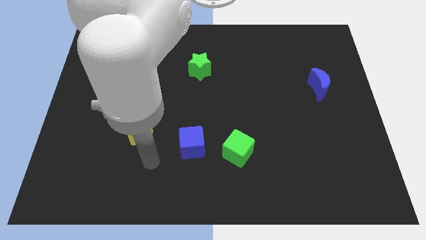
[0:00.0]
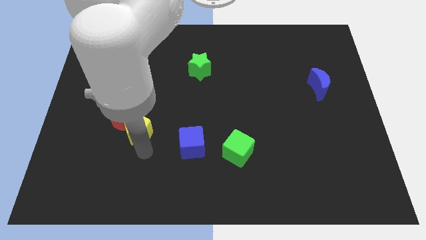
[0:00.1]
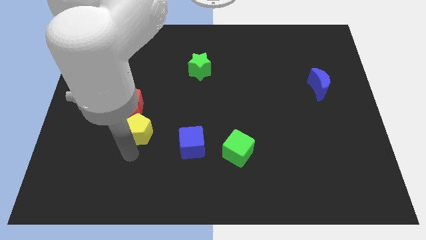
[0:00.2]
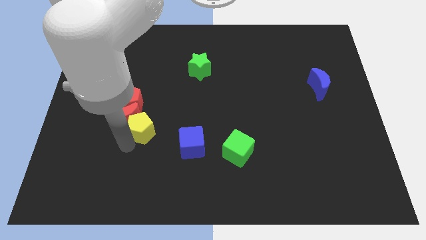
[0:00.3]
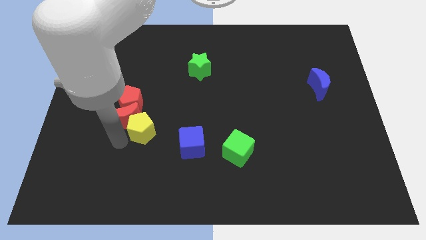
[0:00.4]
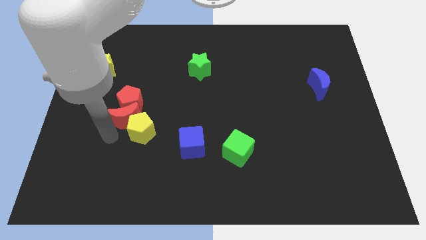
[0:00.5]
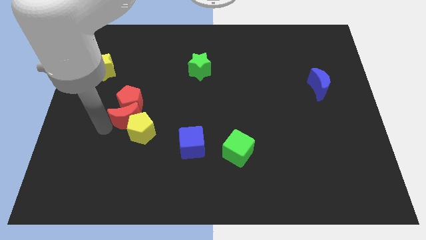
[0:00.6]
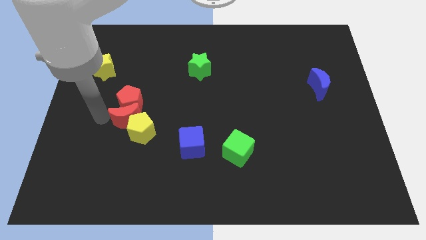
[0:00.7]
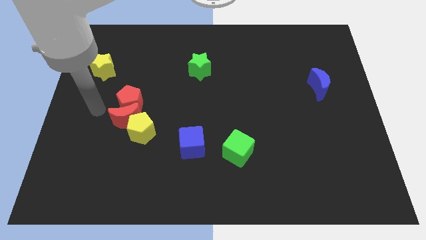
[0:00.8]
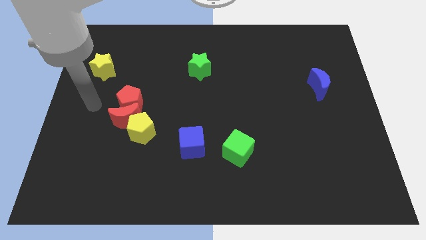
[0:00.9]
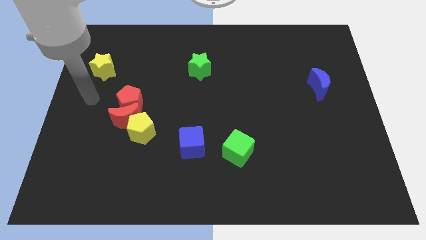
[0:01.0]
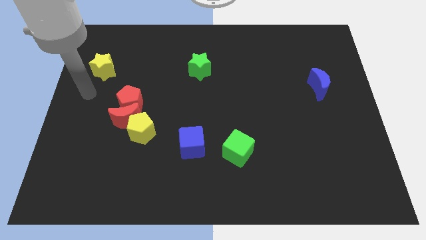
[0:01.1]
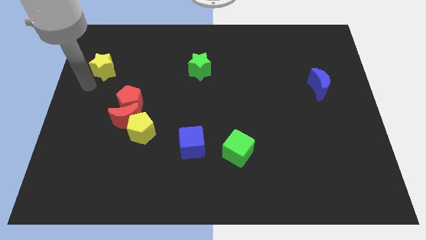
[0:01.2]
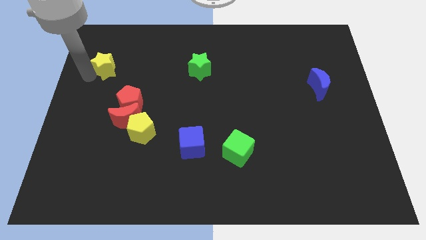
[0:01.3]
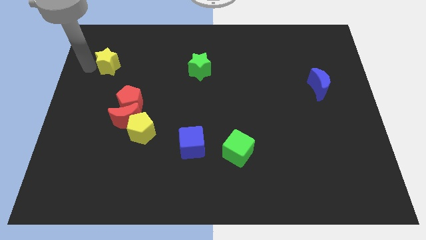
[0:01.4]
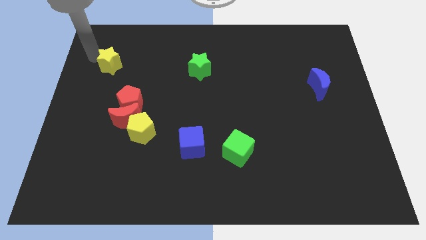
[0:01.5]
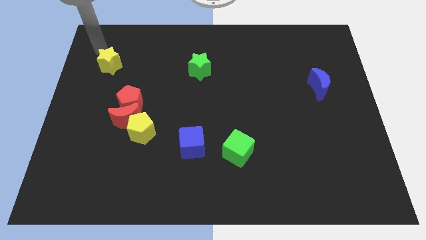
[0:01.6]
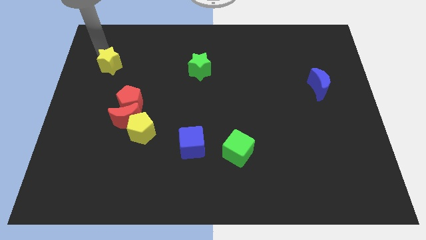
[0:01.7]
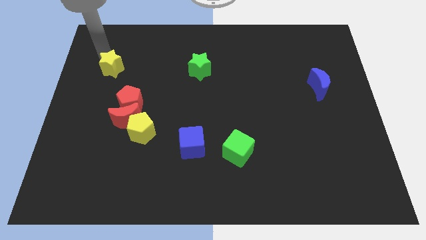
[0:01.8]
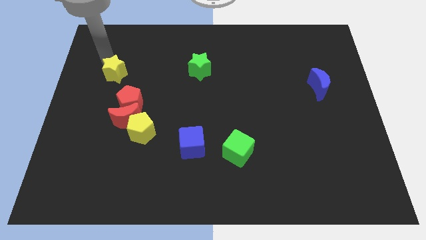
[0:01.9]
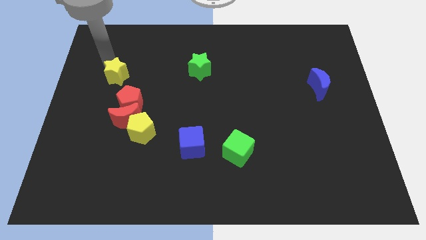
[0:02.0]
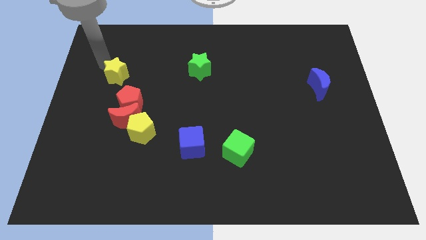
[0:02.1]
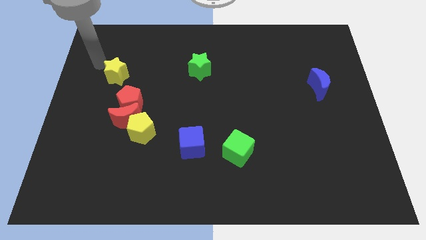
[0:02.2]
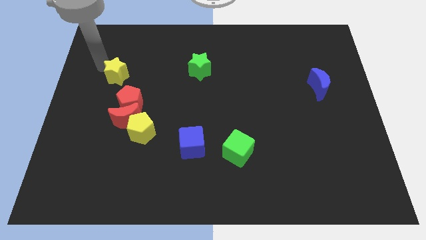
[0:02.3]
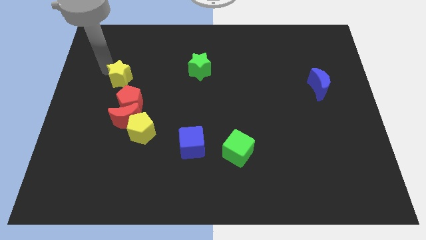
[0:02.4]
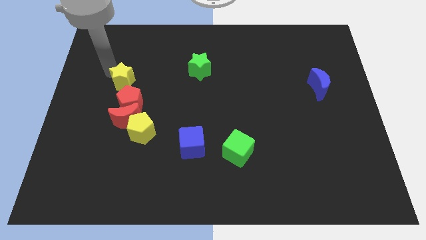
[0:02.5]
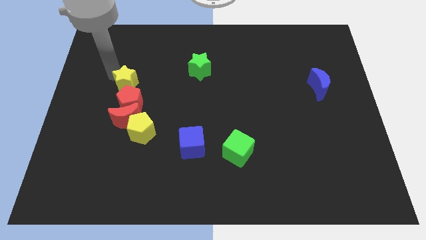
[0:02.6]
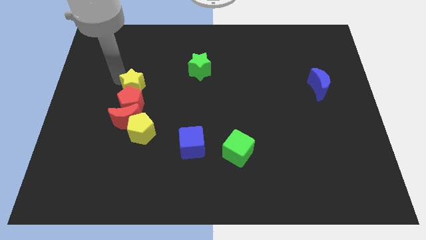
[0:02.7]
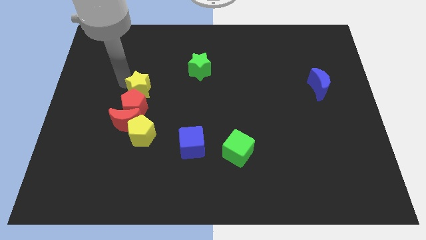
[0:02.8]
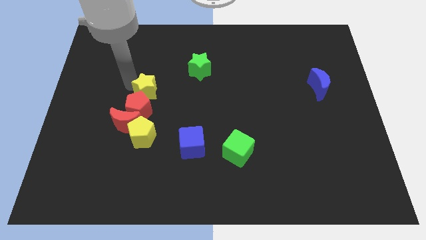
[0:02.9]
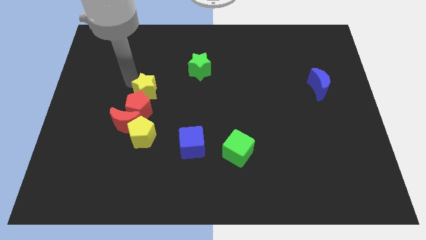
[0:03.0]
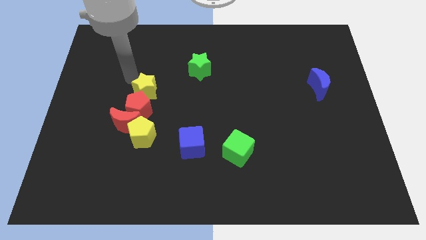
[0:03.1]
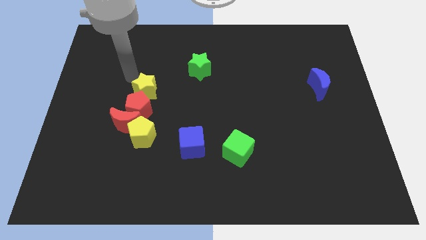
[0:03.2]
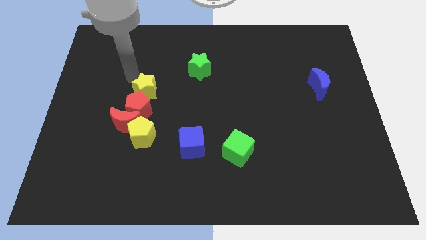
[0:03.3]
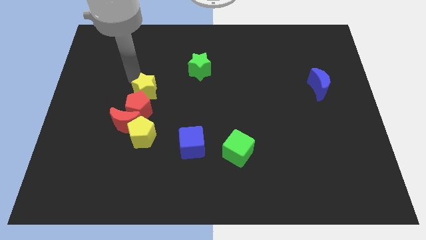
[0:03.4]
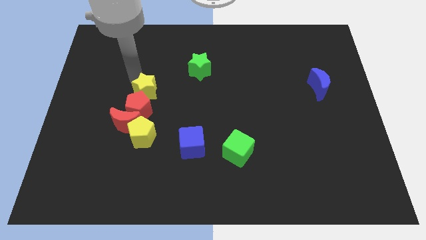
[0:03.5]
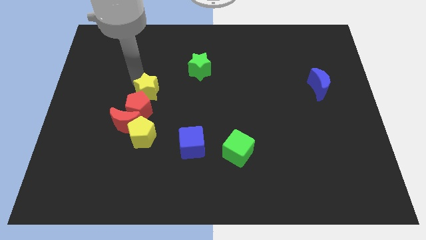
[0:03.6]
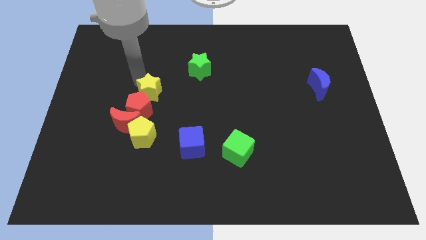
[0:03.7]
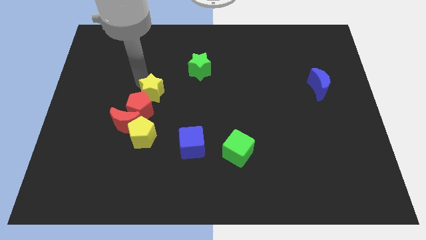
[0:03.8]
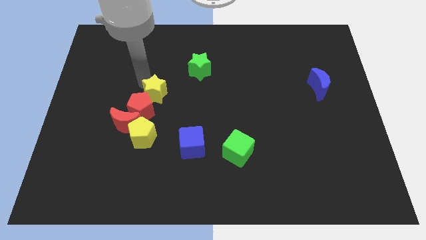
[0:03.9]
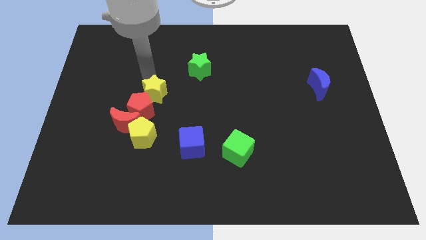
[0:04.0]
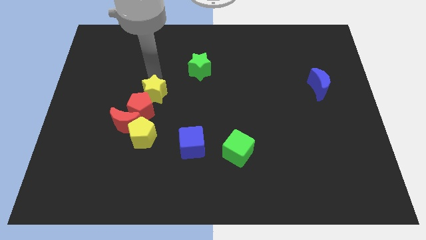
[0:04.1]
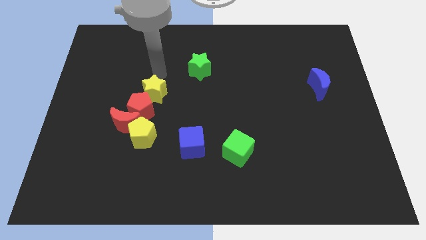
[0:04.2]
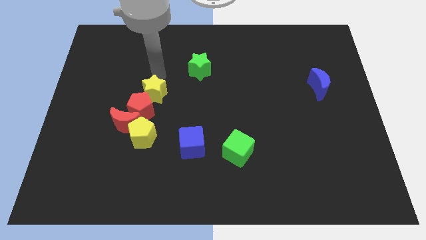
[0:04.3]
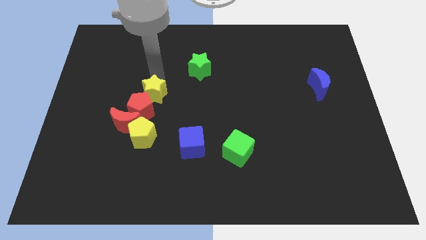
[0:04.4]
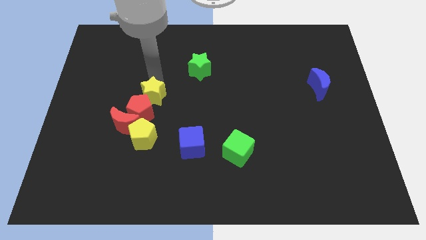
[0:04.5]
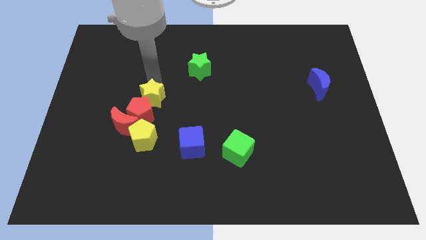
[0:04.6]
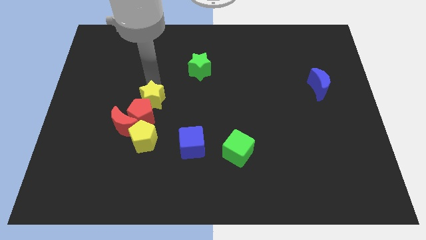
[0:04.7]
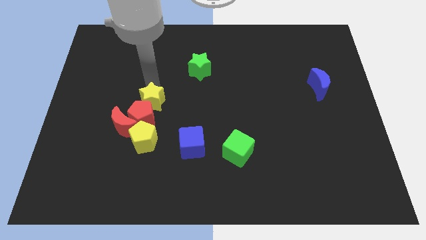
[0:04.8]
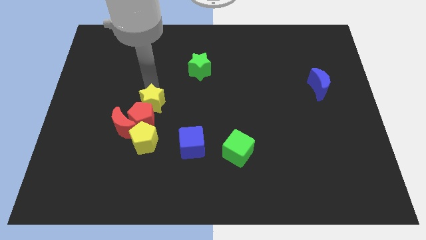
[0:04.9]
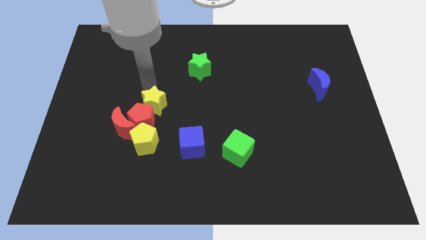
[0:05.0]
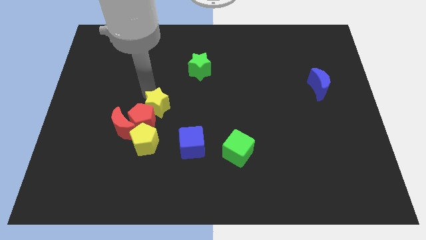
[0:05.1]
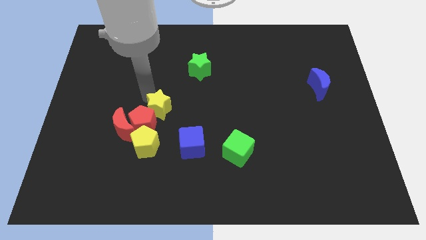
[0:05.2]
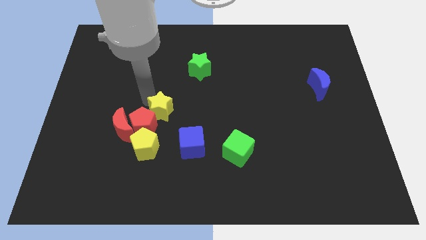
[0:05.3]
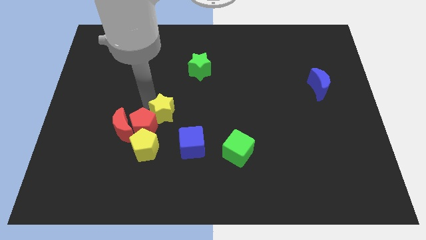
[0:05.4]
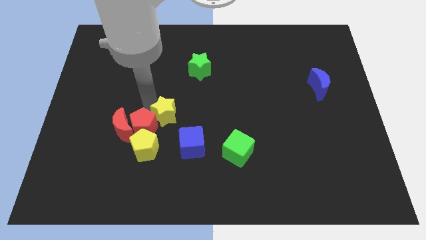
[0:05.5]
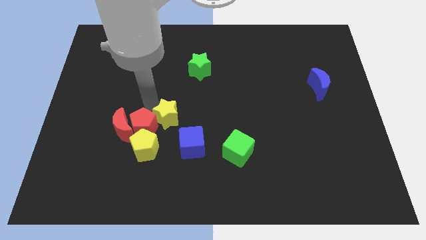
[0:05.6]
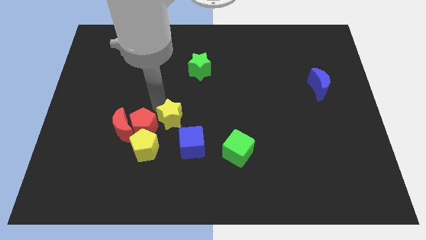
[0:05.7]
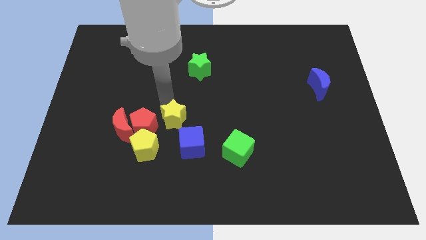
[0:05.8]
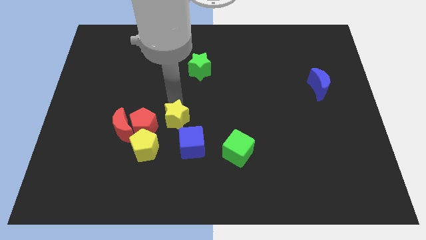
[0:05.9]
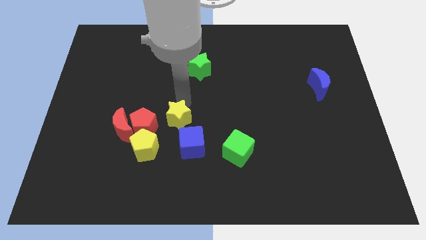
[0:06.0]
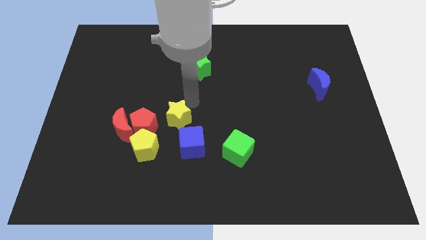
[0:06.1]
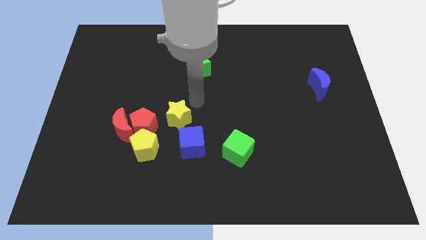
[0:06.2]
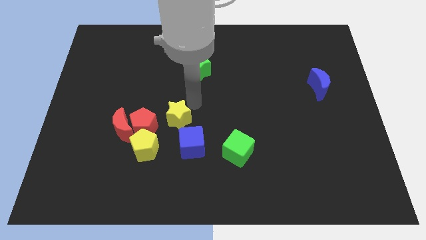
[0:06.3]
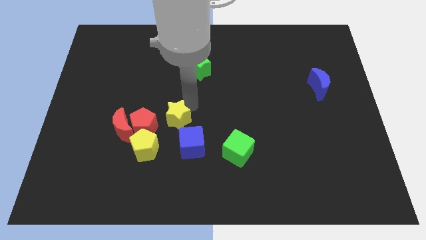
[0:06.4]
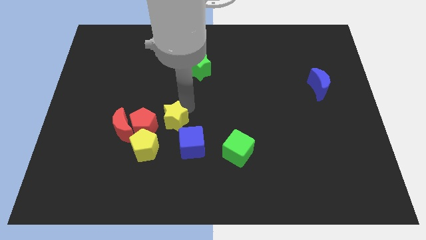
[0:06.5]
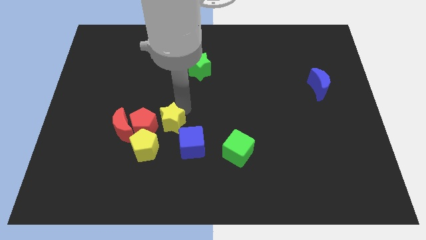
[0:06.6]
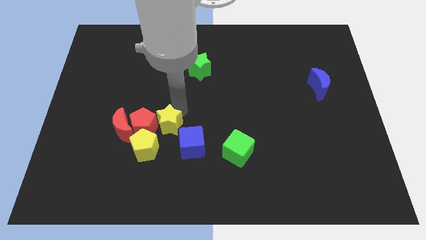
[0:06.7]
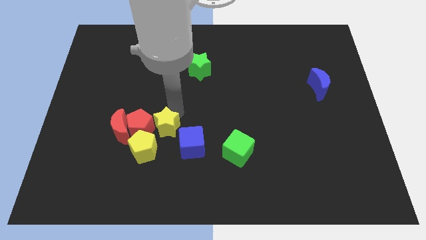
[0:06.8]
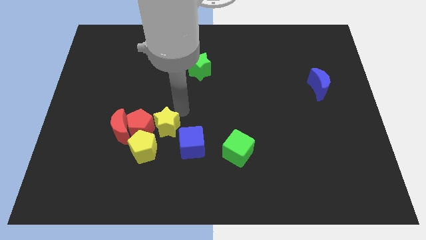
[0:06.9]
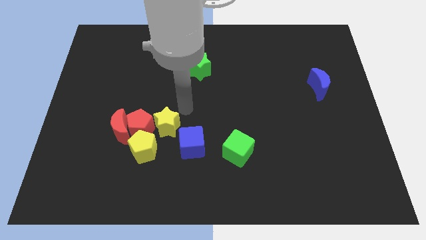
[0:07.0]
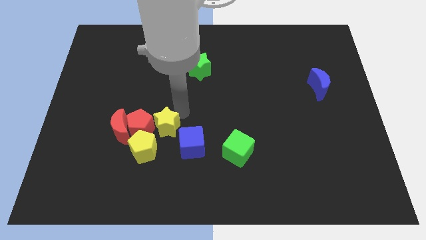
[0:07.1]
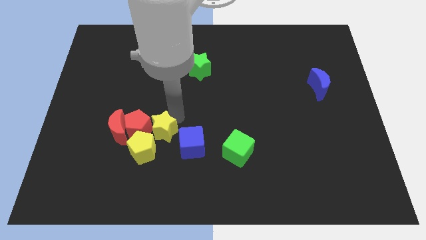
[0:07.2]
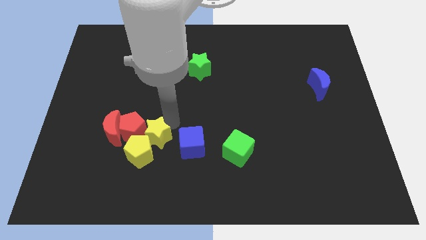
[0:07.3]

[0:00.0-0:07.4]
move the yellow star to the yellow pentagon
